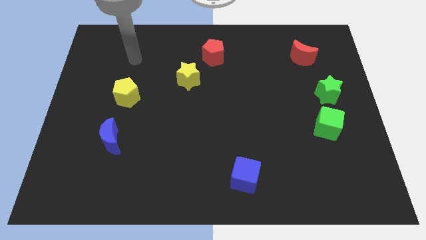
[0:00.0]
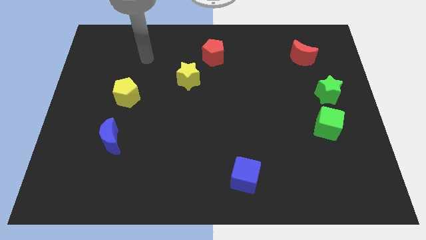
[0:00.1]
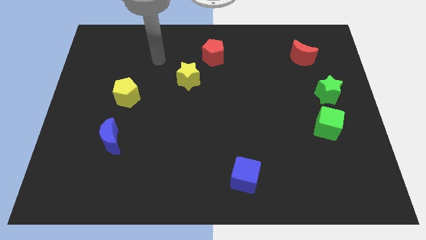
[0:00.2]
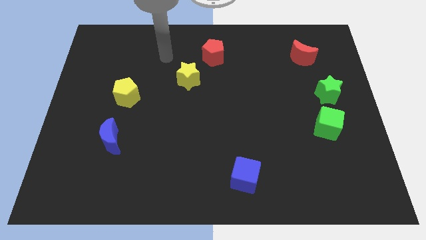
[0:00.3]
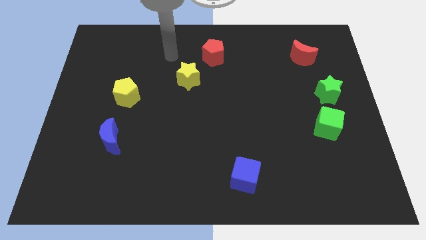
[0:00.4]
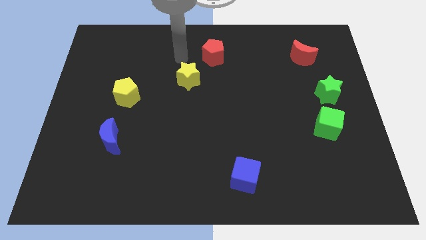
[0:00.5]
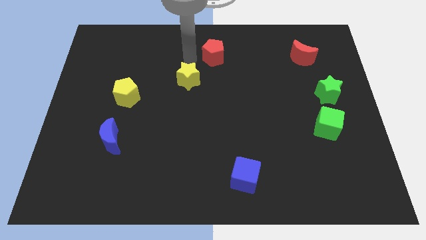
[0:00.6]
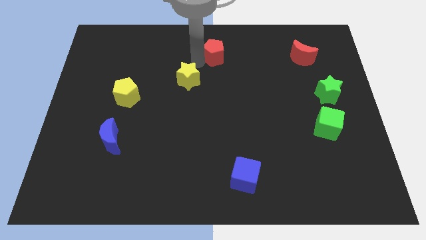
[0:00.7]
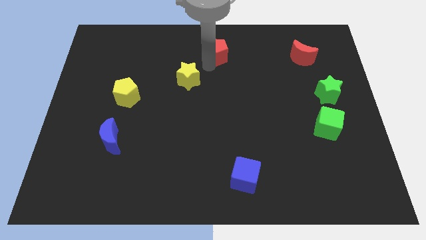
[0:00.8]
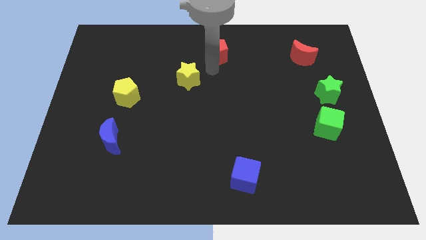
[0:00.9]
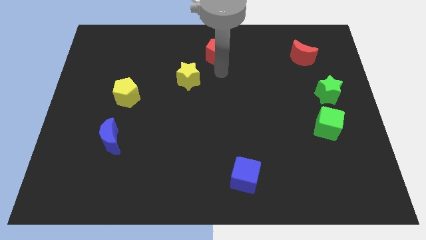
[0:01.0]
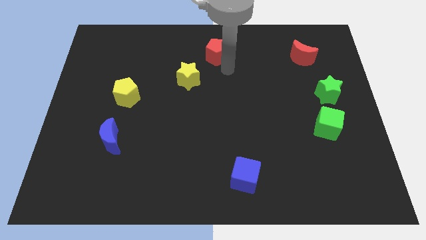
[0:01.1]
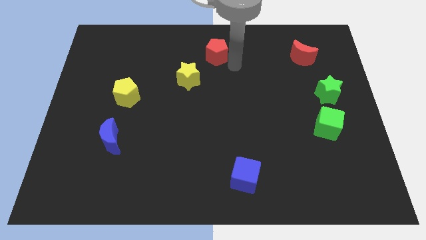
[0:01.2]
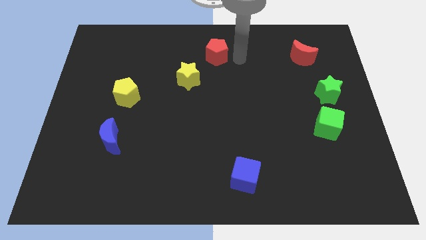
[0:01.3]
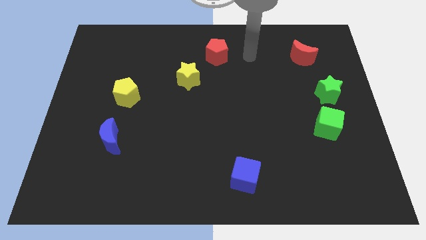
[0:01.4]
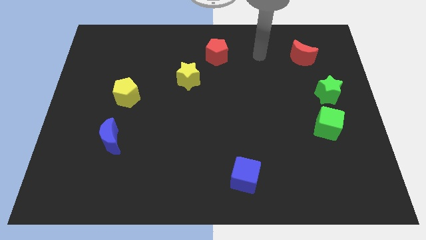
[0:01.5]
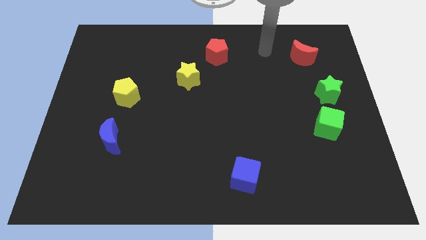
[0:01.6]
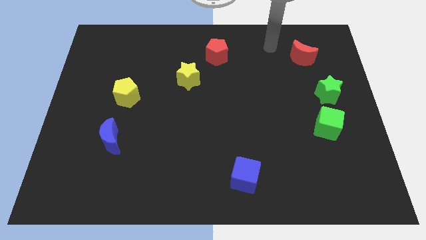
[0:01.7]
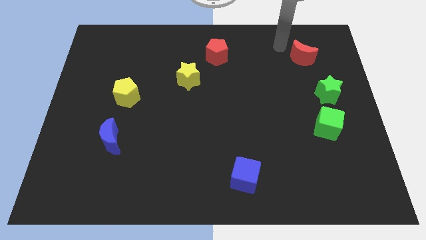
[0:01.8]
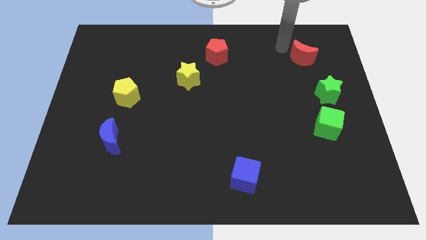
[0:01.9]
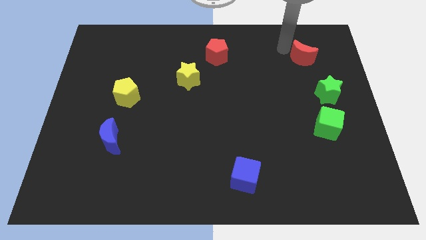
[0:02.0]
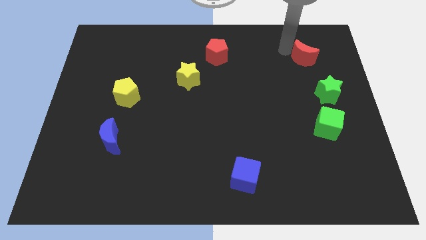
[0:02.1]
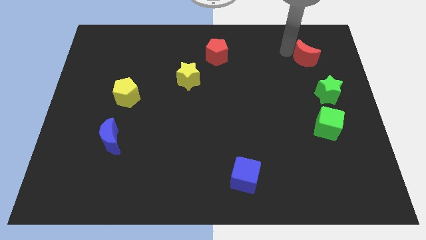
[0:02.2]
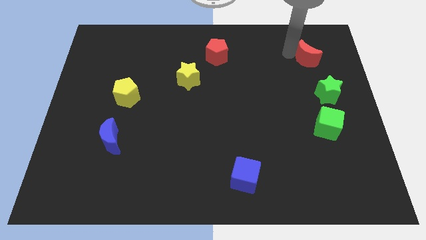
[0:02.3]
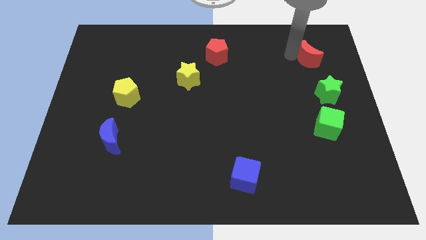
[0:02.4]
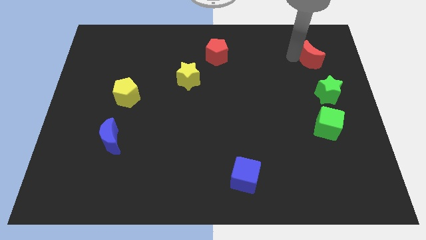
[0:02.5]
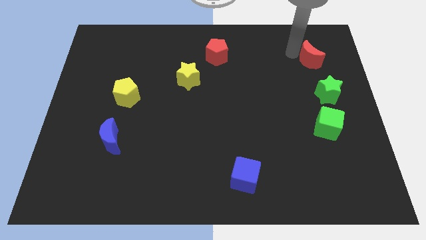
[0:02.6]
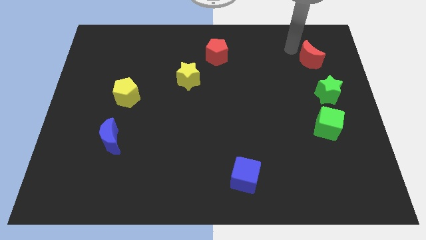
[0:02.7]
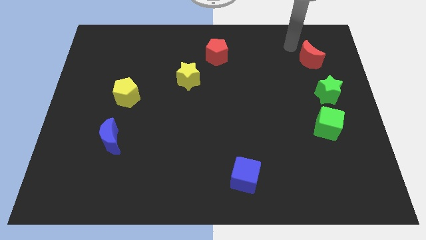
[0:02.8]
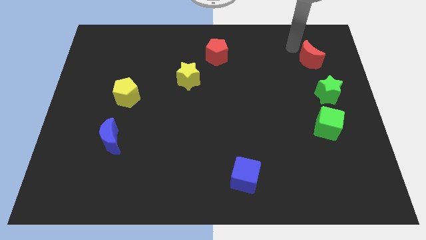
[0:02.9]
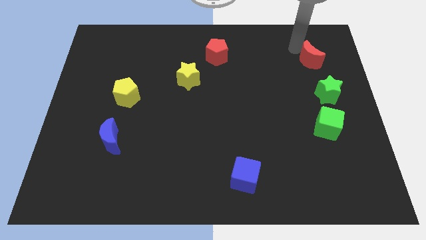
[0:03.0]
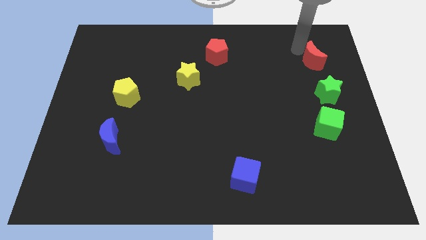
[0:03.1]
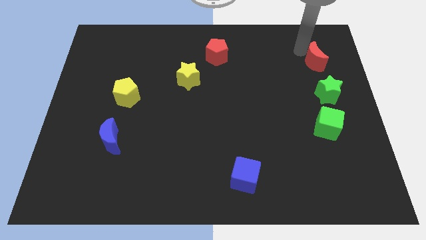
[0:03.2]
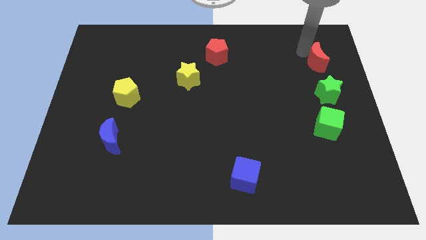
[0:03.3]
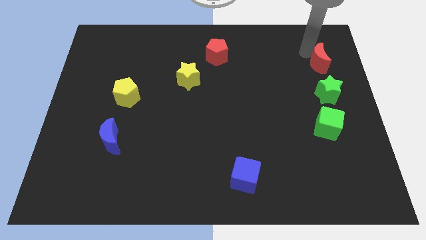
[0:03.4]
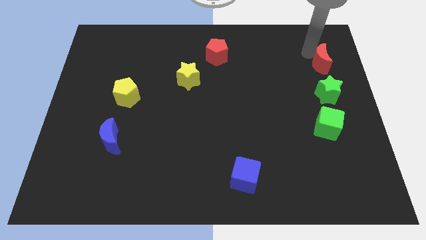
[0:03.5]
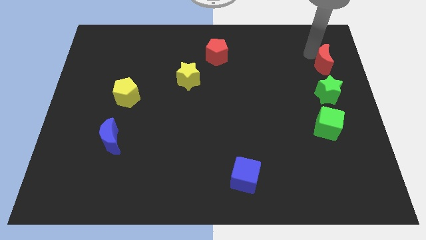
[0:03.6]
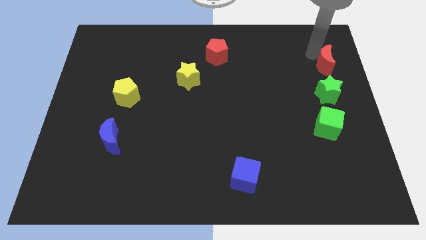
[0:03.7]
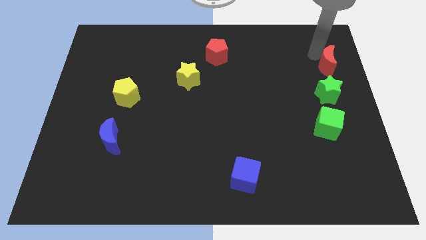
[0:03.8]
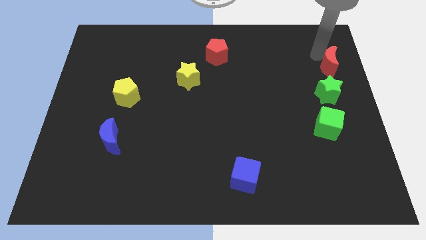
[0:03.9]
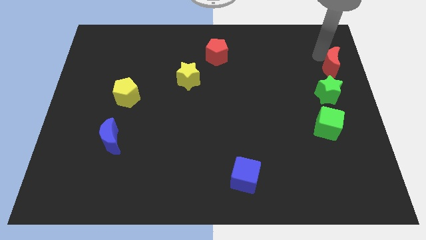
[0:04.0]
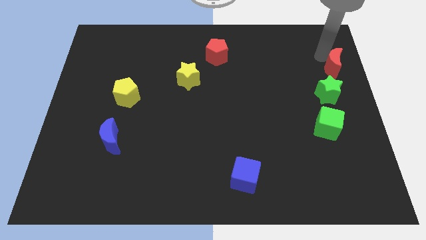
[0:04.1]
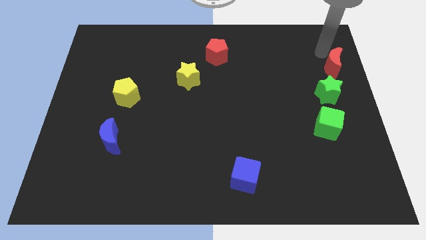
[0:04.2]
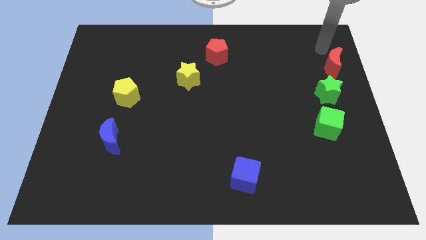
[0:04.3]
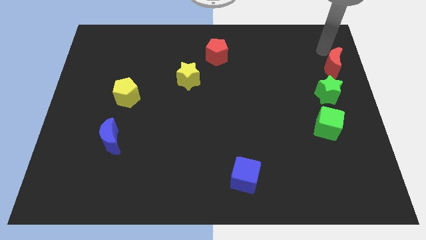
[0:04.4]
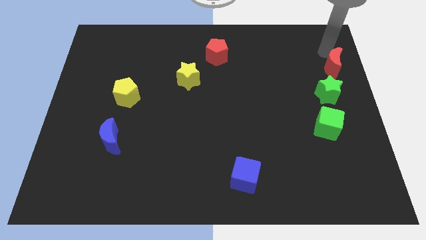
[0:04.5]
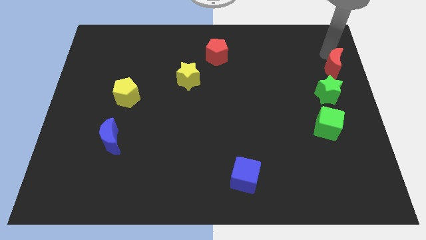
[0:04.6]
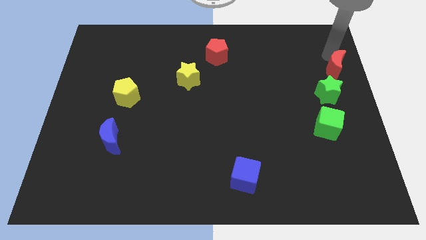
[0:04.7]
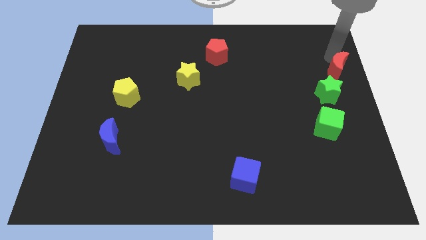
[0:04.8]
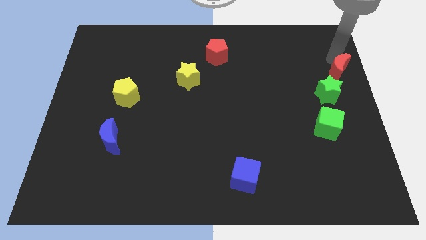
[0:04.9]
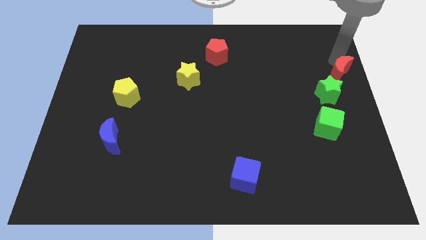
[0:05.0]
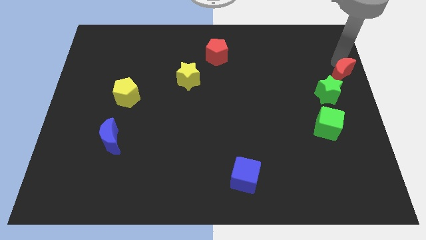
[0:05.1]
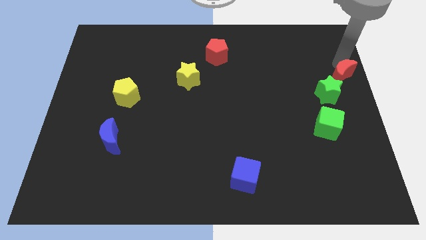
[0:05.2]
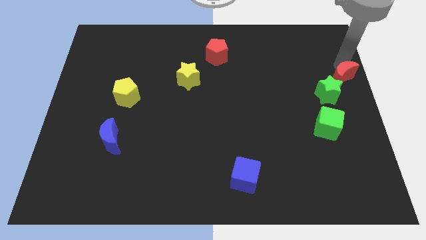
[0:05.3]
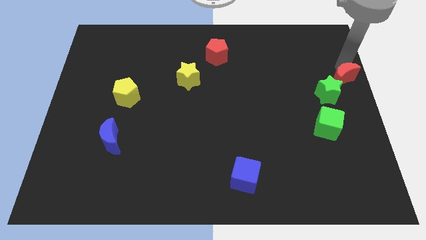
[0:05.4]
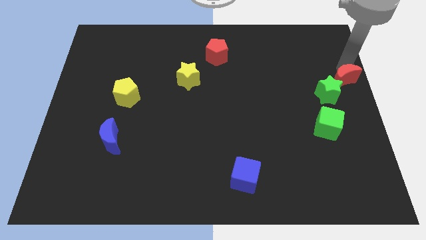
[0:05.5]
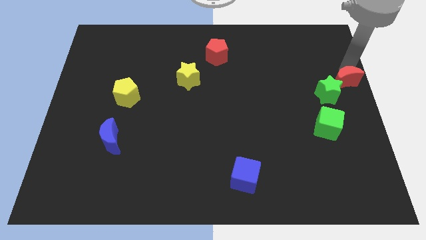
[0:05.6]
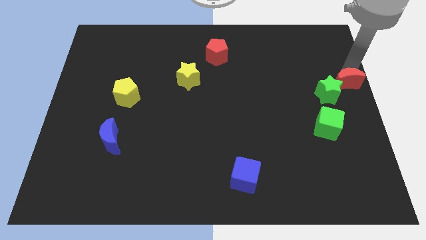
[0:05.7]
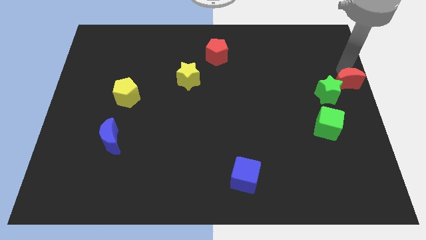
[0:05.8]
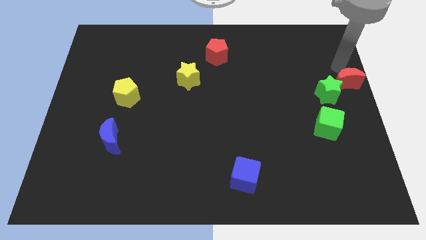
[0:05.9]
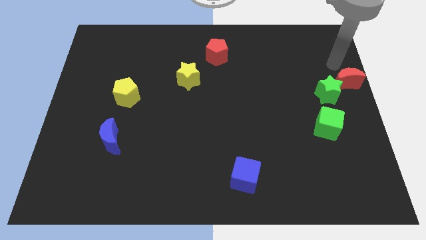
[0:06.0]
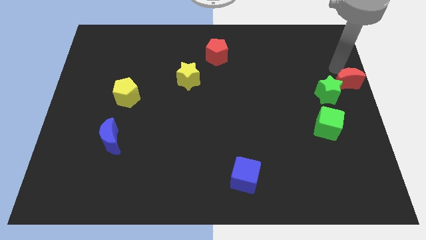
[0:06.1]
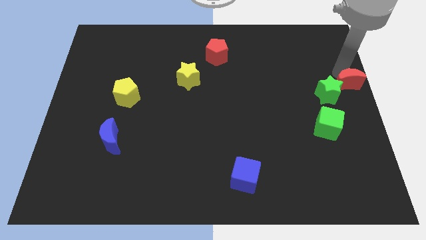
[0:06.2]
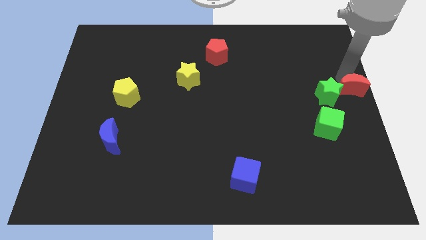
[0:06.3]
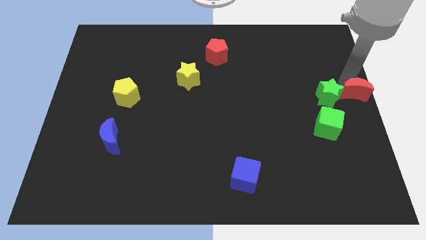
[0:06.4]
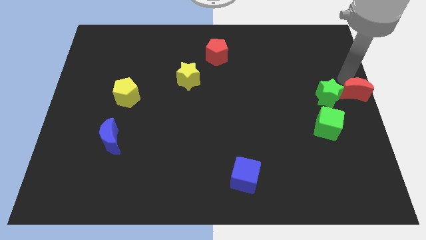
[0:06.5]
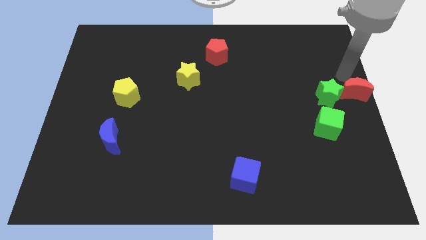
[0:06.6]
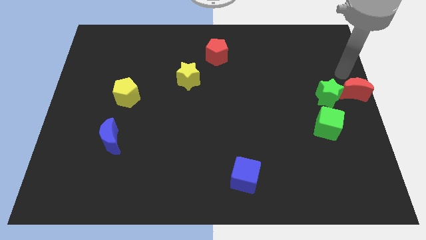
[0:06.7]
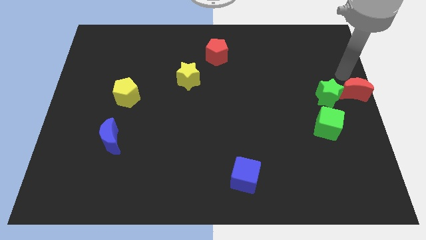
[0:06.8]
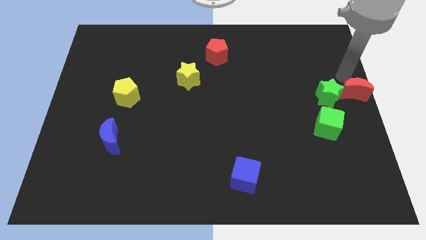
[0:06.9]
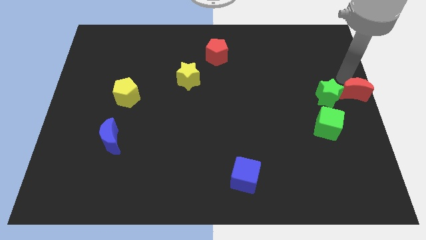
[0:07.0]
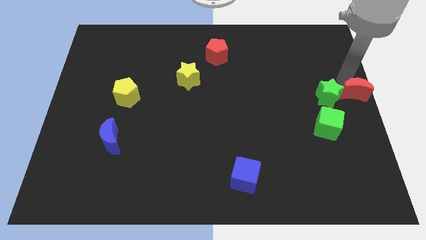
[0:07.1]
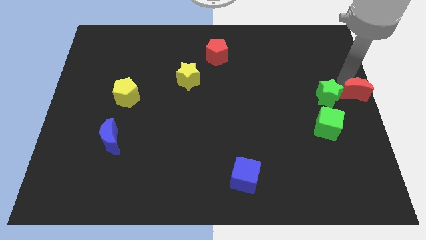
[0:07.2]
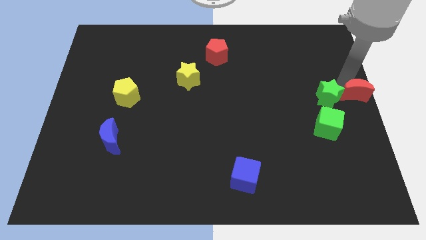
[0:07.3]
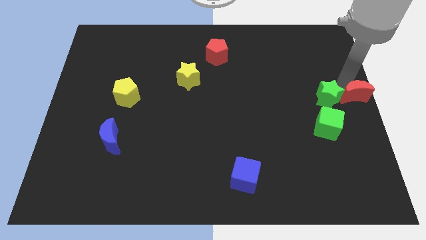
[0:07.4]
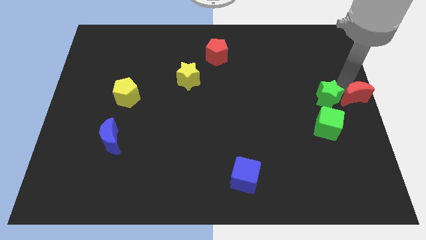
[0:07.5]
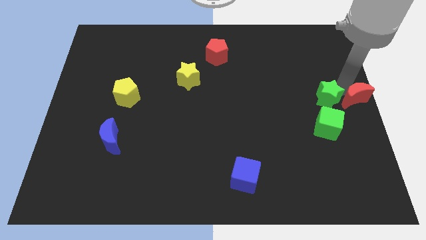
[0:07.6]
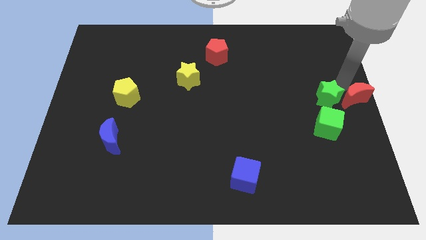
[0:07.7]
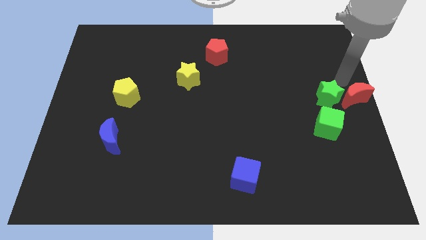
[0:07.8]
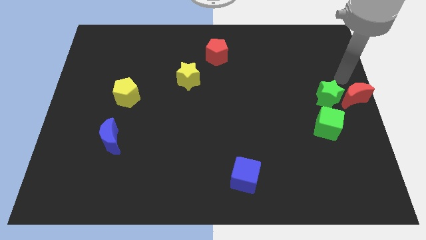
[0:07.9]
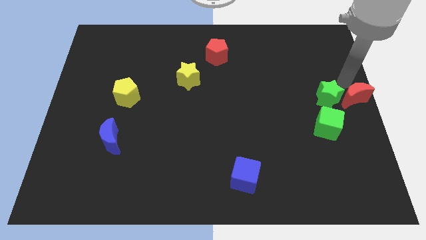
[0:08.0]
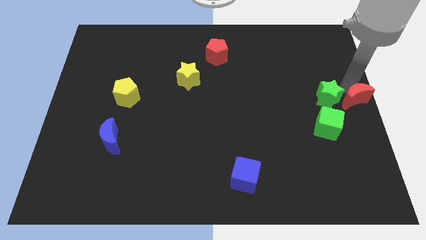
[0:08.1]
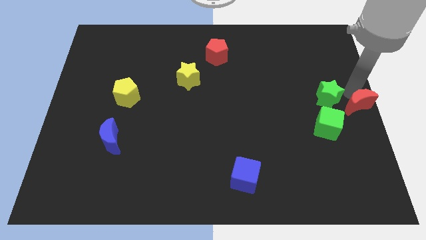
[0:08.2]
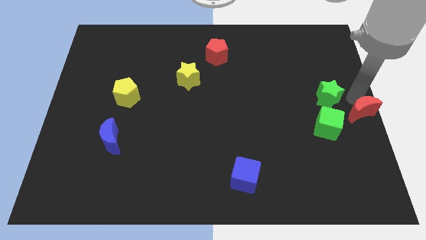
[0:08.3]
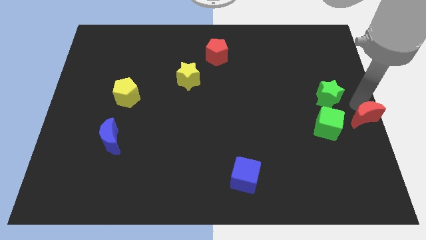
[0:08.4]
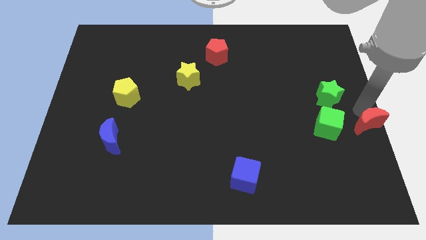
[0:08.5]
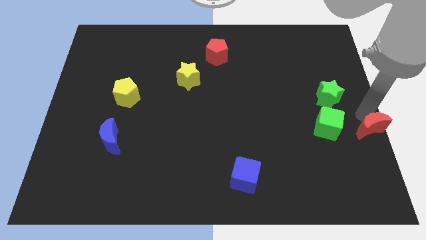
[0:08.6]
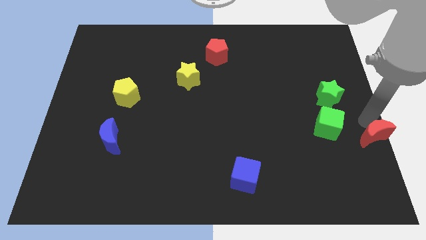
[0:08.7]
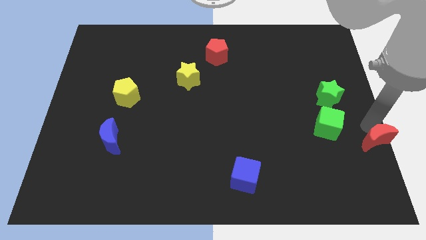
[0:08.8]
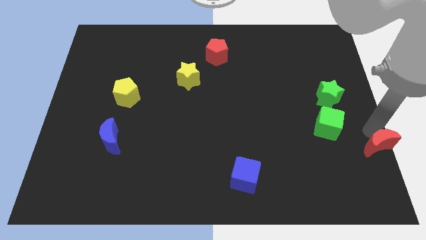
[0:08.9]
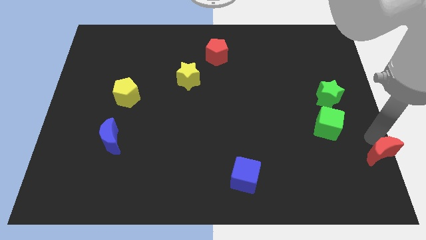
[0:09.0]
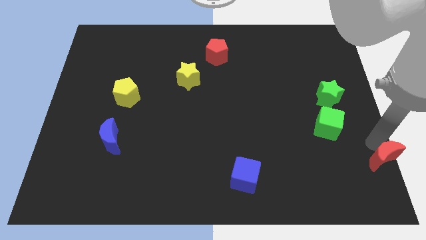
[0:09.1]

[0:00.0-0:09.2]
push the red moon to the bottom right
